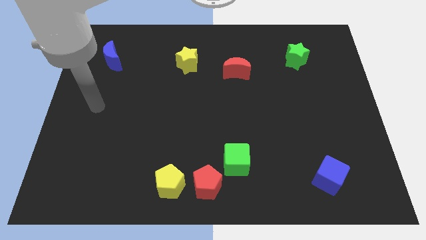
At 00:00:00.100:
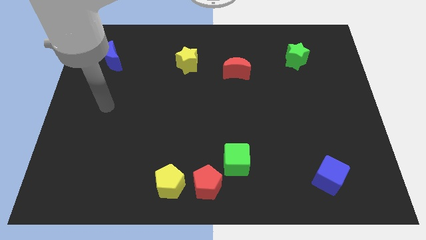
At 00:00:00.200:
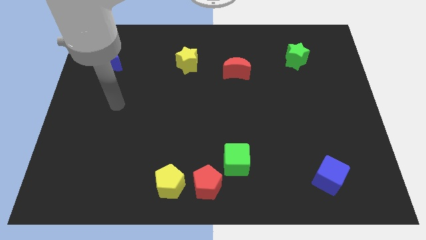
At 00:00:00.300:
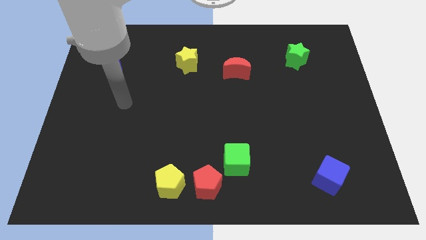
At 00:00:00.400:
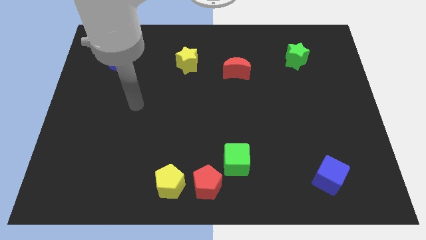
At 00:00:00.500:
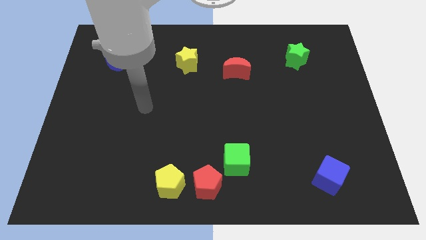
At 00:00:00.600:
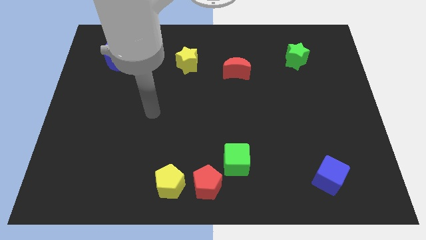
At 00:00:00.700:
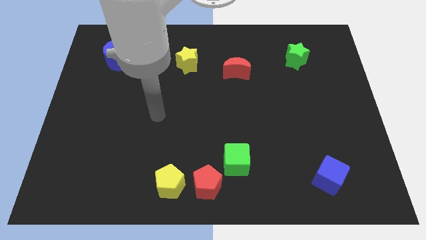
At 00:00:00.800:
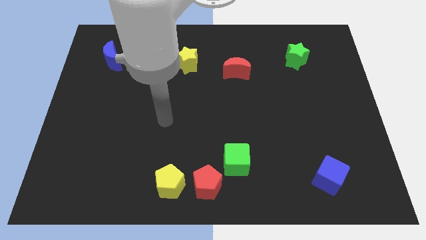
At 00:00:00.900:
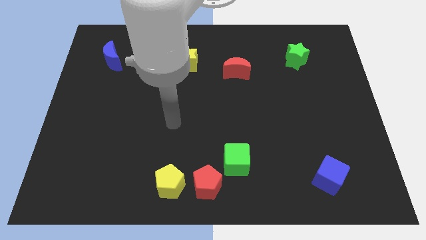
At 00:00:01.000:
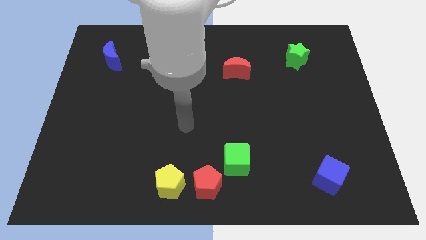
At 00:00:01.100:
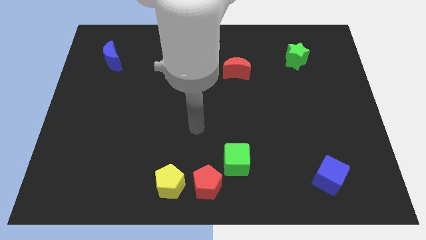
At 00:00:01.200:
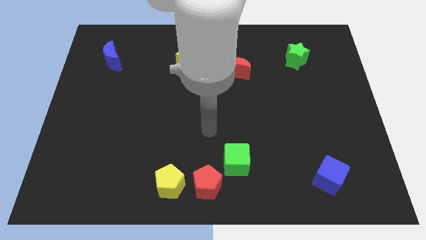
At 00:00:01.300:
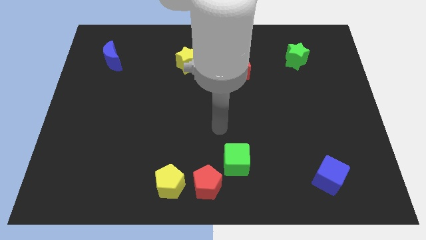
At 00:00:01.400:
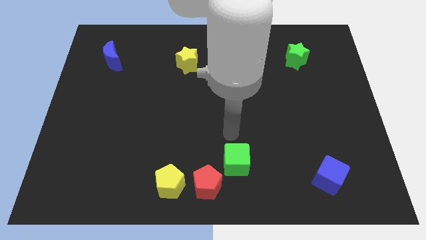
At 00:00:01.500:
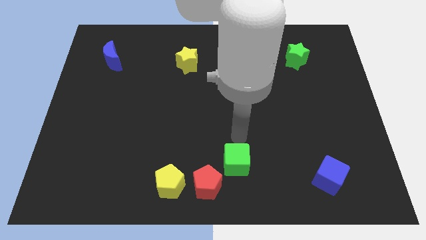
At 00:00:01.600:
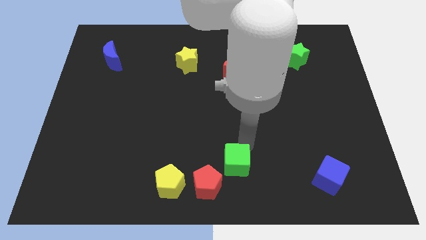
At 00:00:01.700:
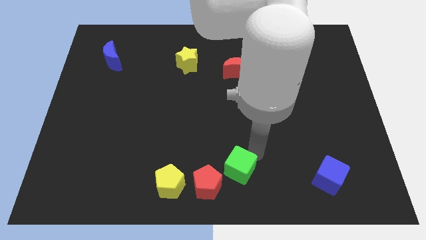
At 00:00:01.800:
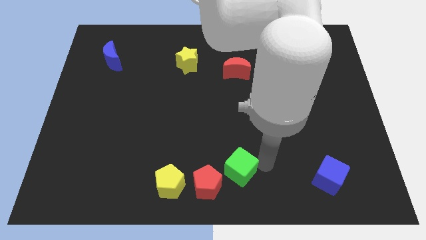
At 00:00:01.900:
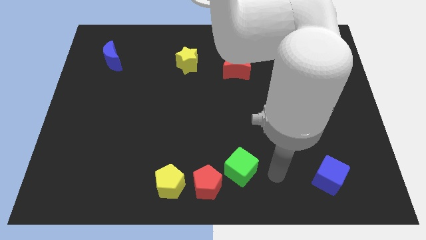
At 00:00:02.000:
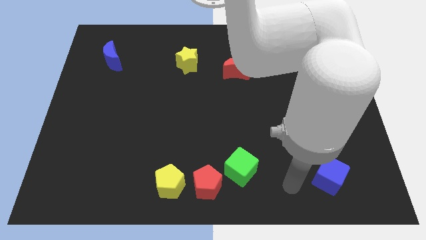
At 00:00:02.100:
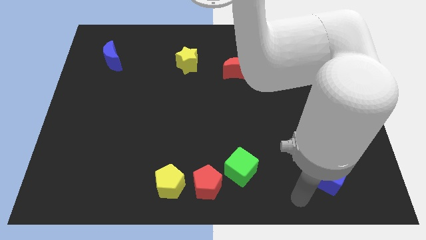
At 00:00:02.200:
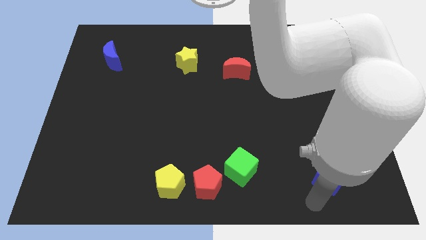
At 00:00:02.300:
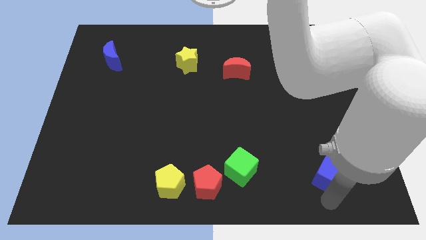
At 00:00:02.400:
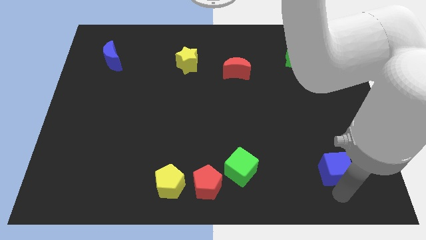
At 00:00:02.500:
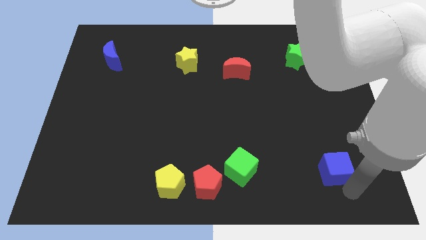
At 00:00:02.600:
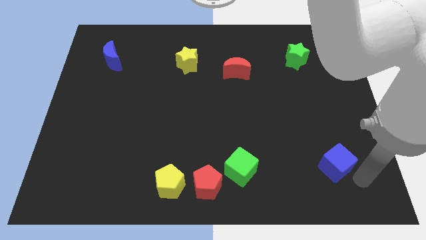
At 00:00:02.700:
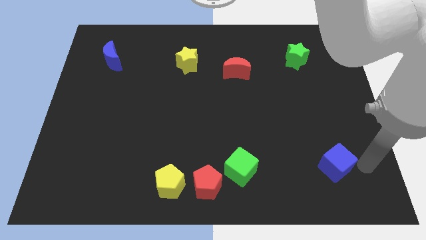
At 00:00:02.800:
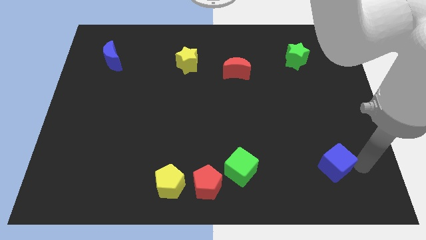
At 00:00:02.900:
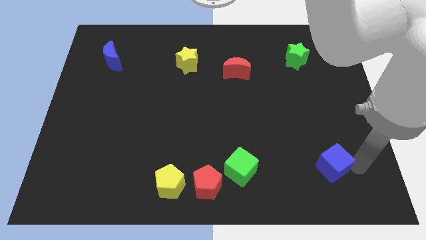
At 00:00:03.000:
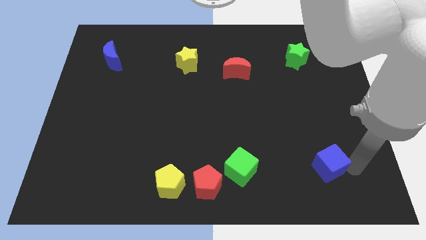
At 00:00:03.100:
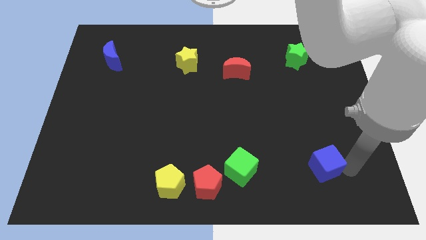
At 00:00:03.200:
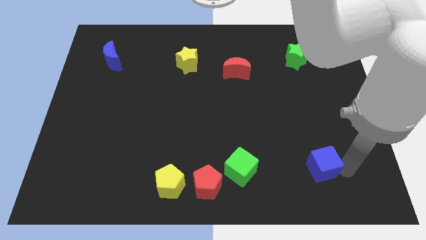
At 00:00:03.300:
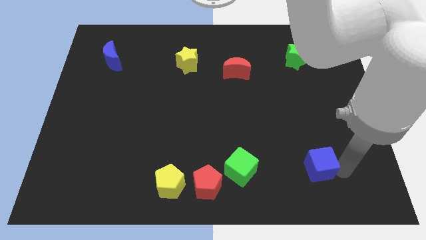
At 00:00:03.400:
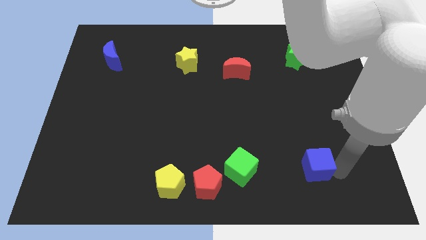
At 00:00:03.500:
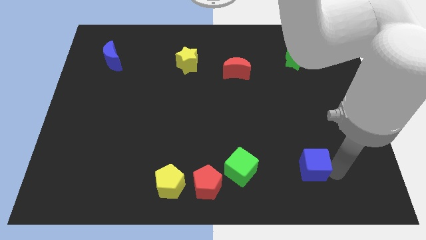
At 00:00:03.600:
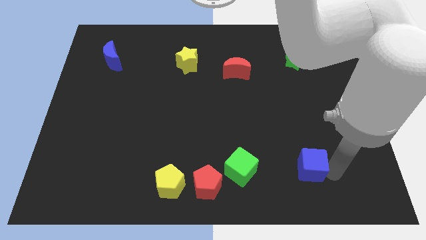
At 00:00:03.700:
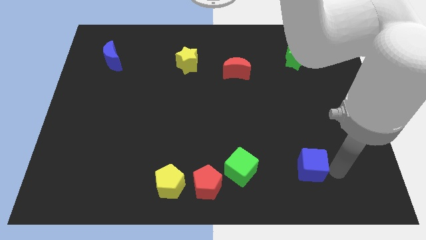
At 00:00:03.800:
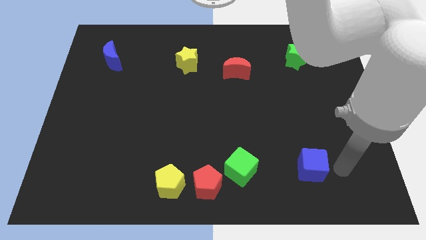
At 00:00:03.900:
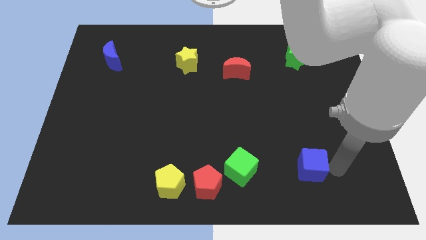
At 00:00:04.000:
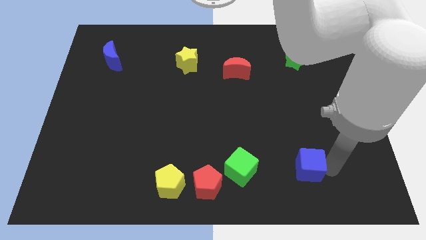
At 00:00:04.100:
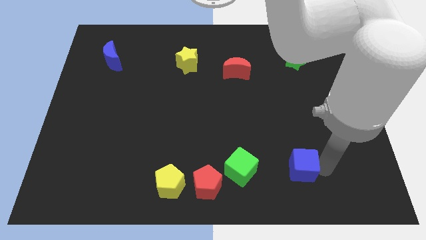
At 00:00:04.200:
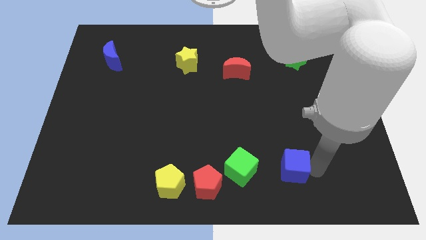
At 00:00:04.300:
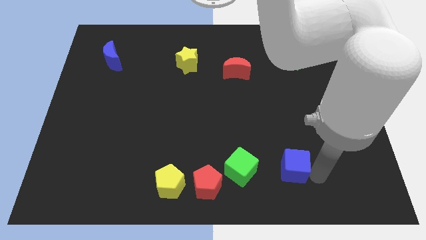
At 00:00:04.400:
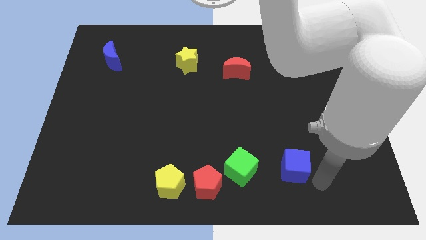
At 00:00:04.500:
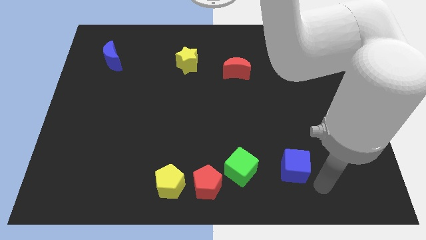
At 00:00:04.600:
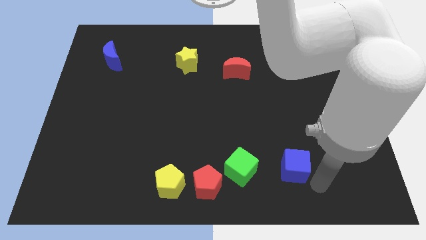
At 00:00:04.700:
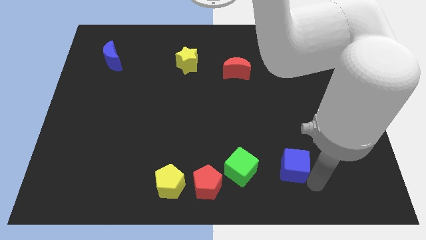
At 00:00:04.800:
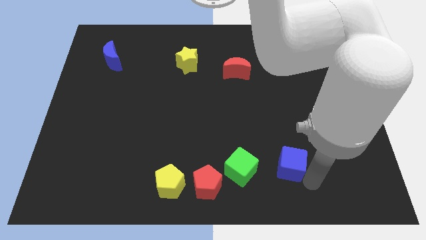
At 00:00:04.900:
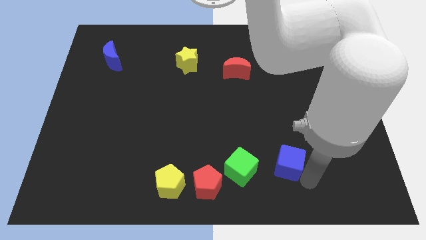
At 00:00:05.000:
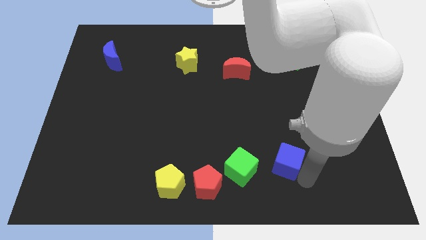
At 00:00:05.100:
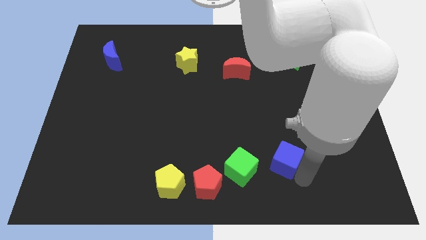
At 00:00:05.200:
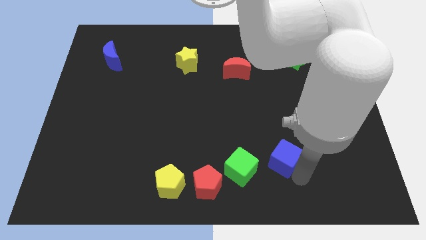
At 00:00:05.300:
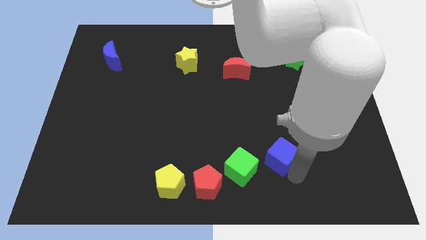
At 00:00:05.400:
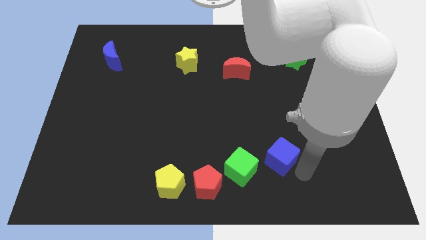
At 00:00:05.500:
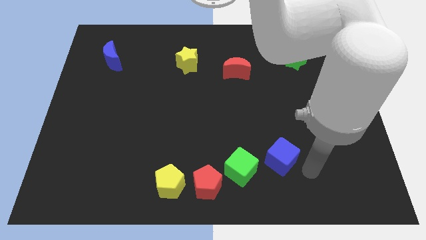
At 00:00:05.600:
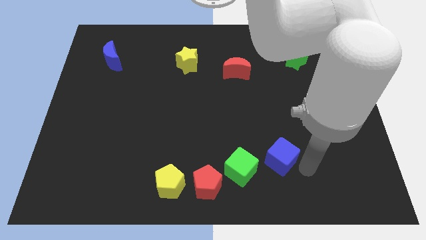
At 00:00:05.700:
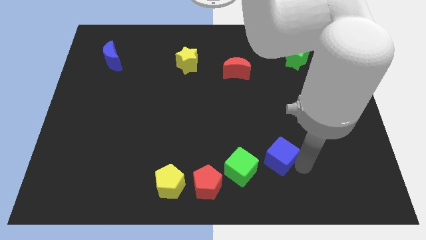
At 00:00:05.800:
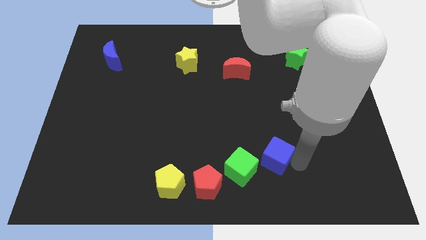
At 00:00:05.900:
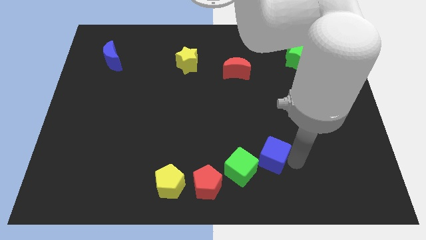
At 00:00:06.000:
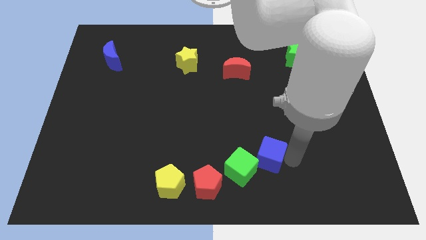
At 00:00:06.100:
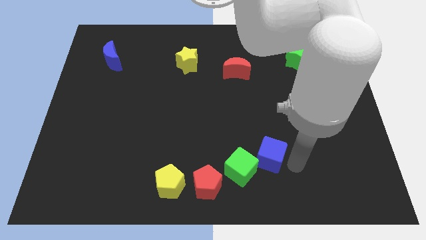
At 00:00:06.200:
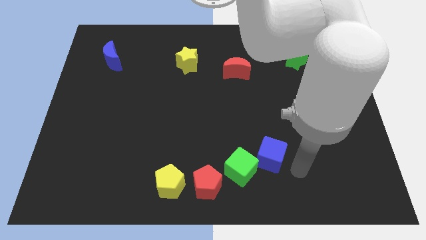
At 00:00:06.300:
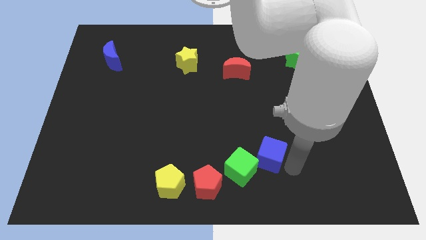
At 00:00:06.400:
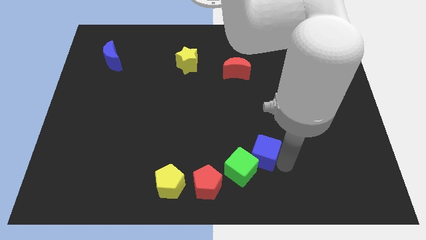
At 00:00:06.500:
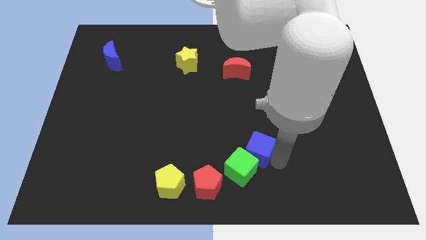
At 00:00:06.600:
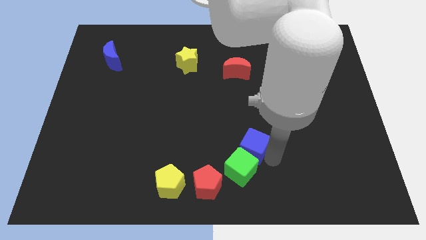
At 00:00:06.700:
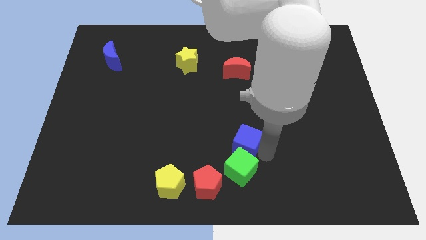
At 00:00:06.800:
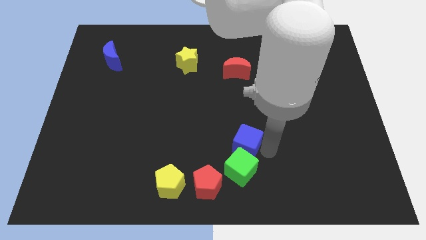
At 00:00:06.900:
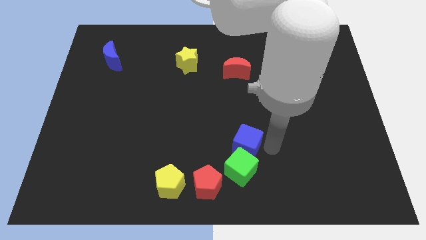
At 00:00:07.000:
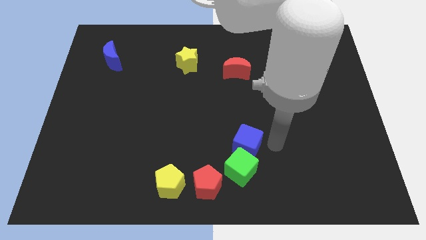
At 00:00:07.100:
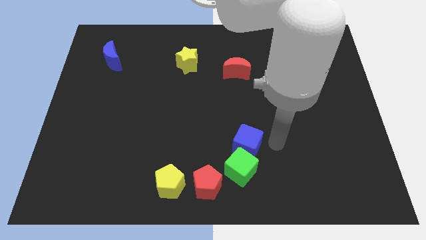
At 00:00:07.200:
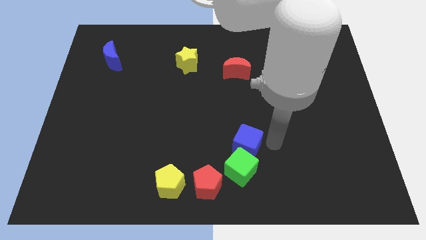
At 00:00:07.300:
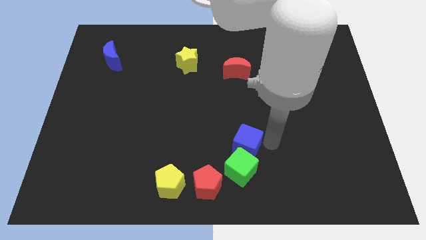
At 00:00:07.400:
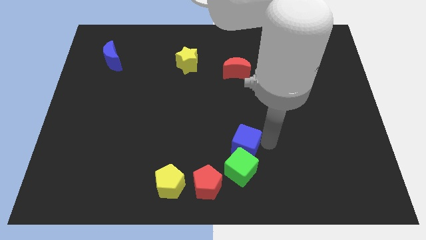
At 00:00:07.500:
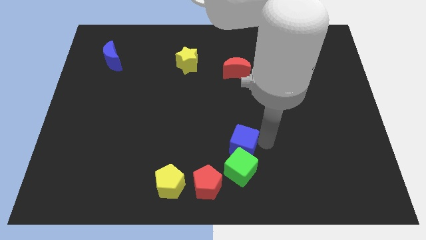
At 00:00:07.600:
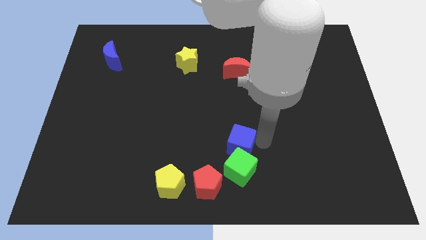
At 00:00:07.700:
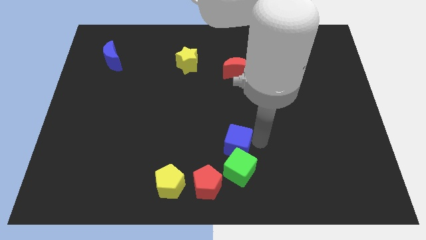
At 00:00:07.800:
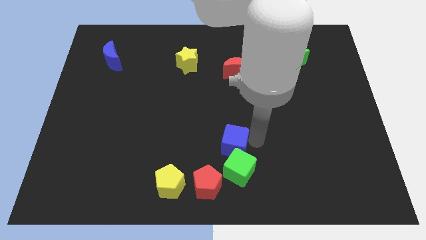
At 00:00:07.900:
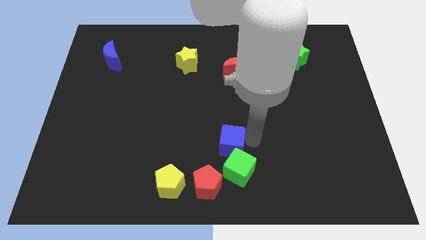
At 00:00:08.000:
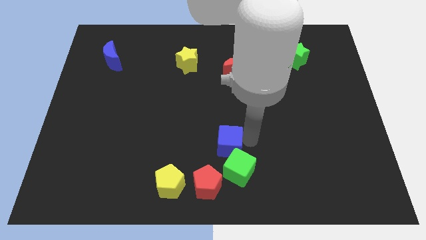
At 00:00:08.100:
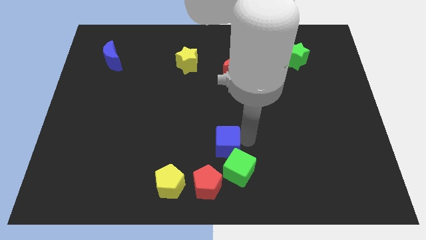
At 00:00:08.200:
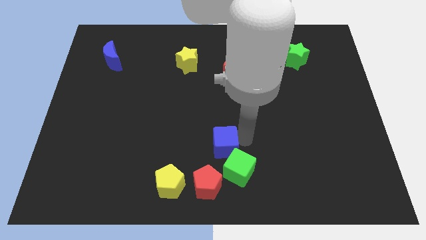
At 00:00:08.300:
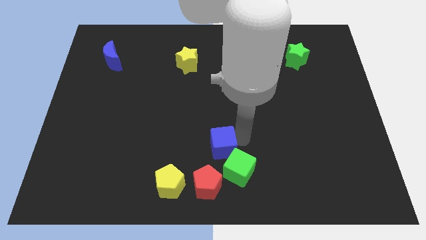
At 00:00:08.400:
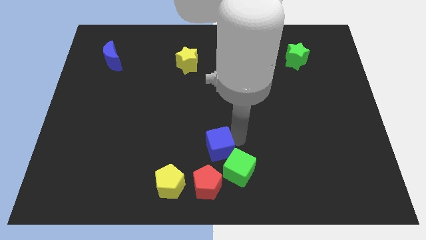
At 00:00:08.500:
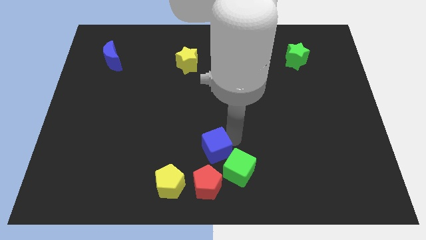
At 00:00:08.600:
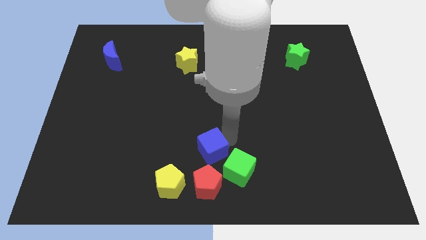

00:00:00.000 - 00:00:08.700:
put the blue cube left of the green cube
